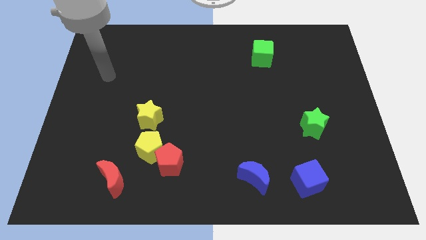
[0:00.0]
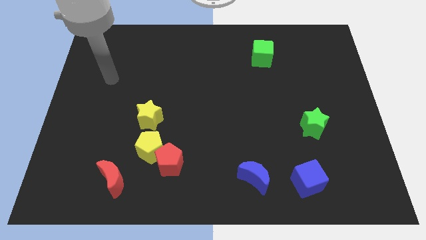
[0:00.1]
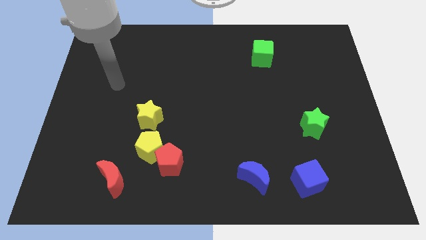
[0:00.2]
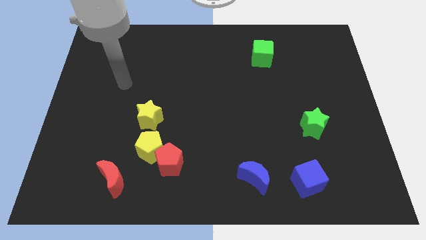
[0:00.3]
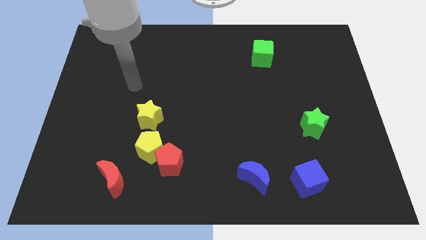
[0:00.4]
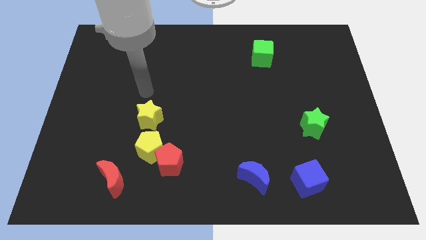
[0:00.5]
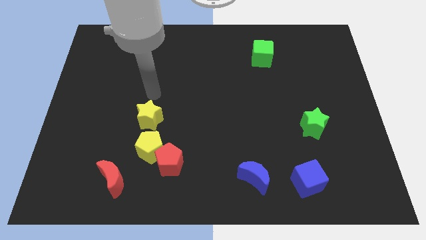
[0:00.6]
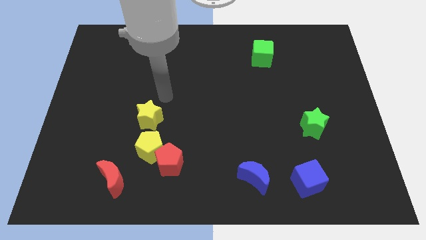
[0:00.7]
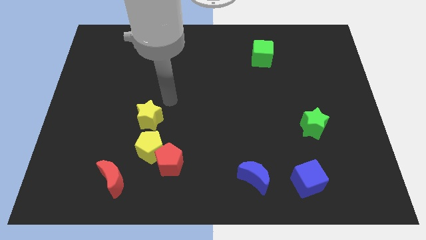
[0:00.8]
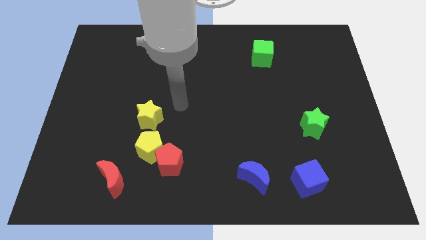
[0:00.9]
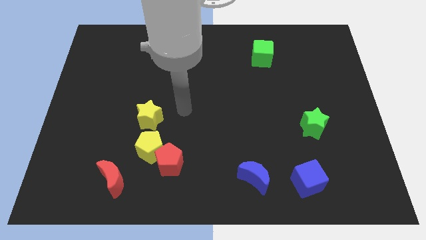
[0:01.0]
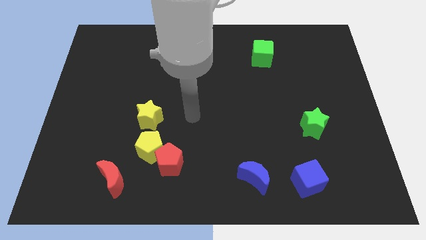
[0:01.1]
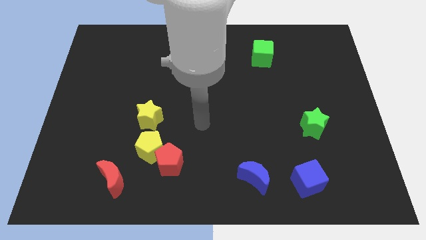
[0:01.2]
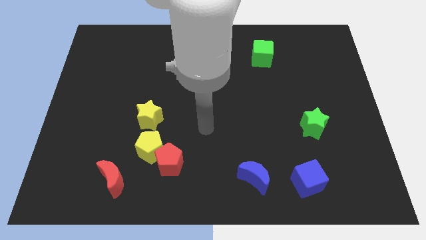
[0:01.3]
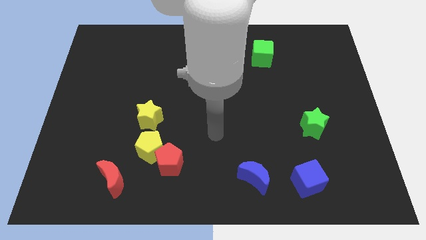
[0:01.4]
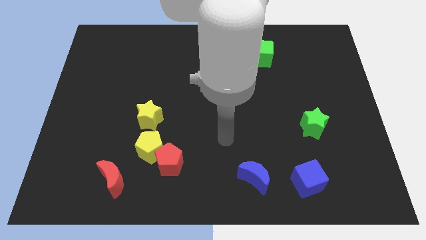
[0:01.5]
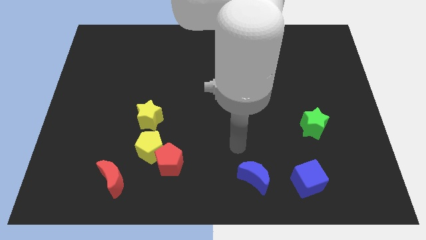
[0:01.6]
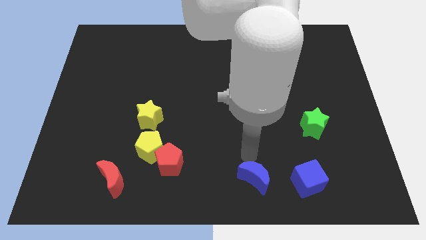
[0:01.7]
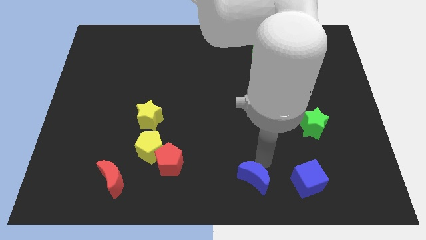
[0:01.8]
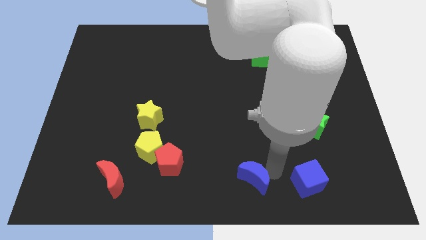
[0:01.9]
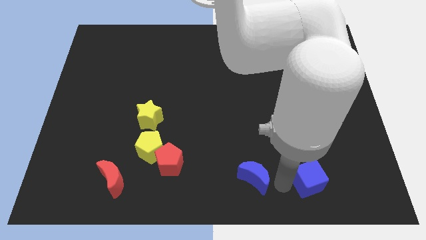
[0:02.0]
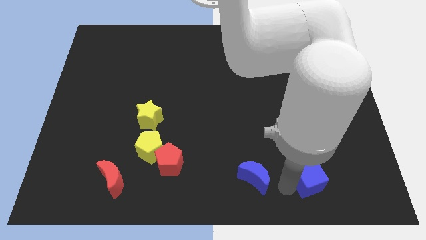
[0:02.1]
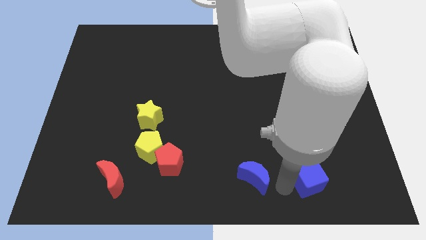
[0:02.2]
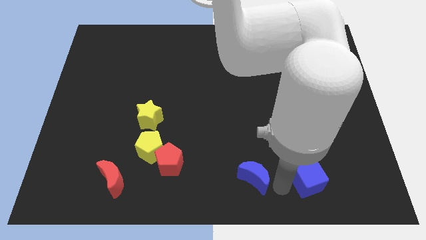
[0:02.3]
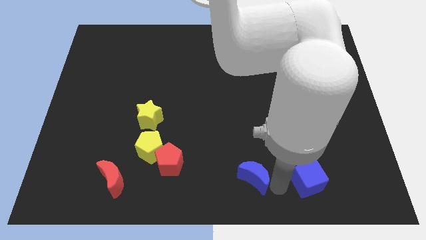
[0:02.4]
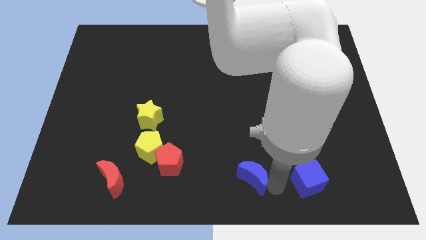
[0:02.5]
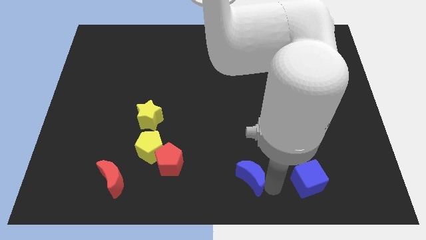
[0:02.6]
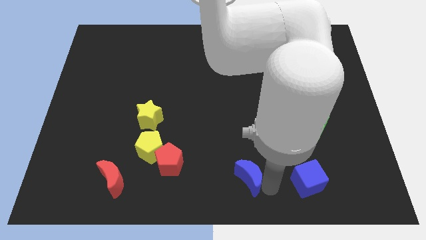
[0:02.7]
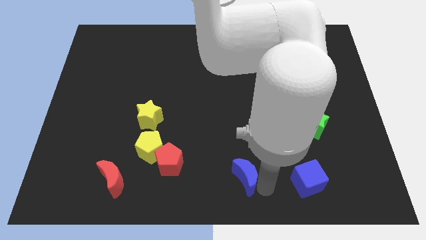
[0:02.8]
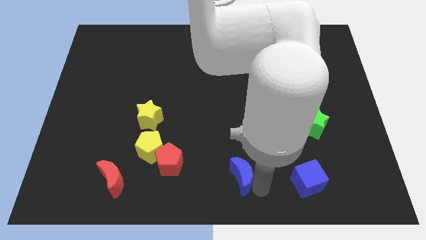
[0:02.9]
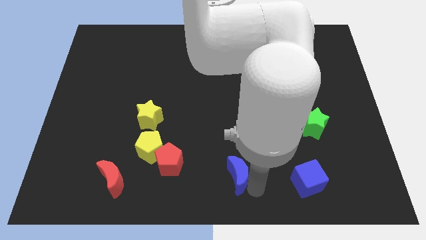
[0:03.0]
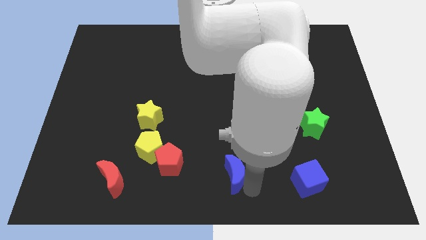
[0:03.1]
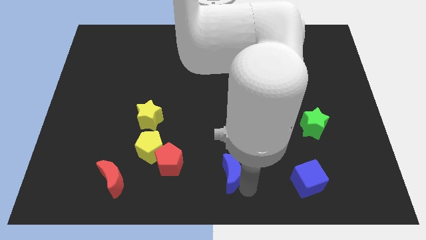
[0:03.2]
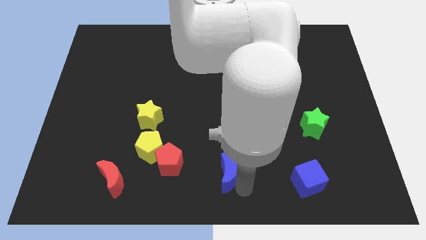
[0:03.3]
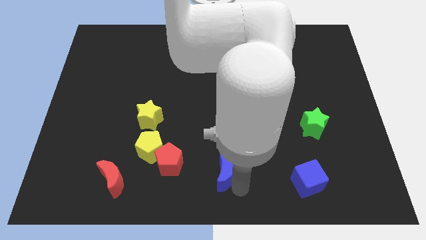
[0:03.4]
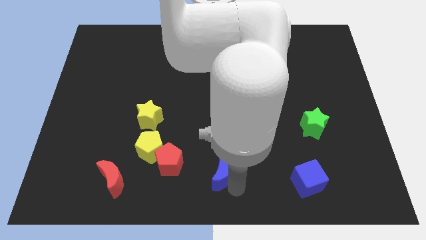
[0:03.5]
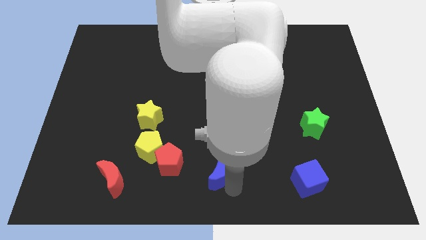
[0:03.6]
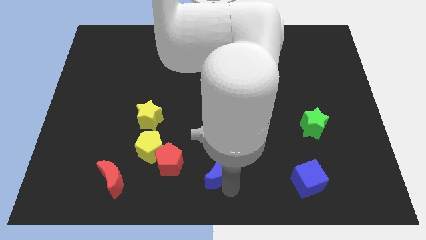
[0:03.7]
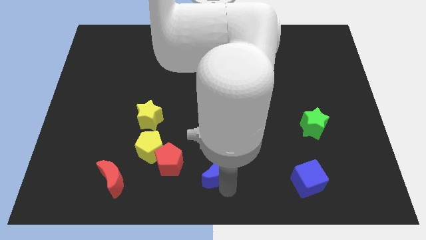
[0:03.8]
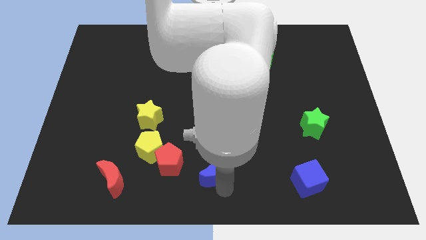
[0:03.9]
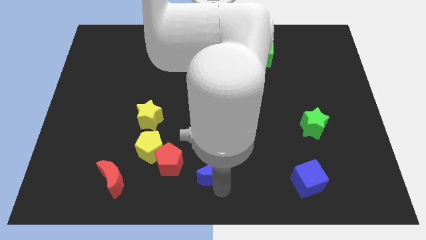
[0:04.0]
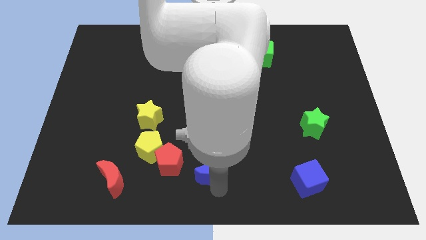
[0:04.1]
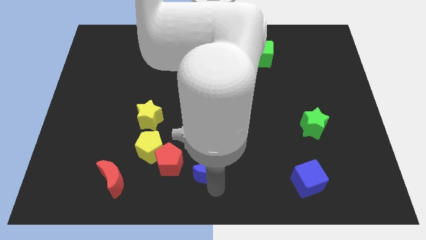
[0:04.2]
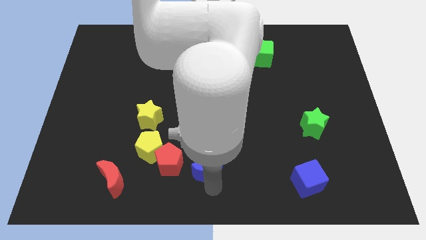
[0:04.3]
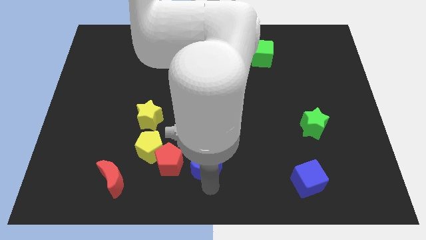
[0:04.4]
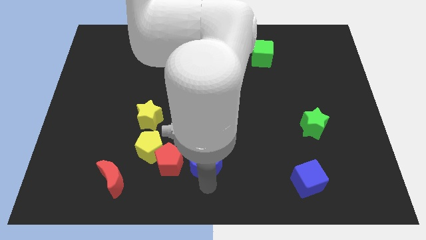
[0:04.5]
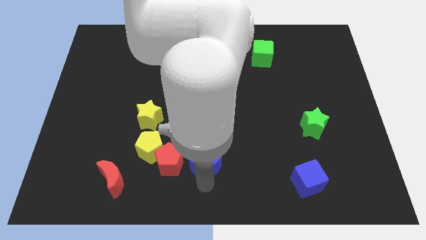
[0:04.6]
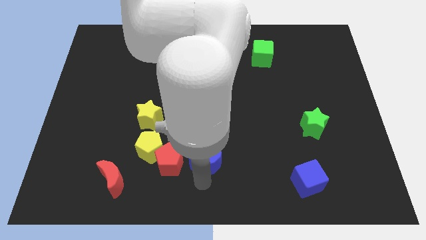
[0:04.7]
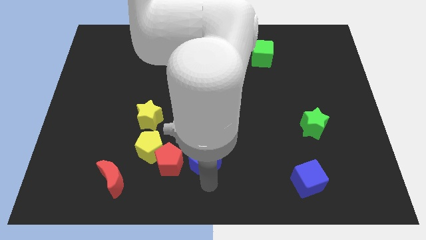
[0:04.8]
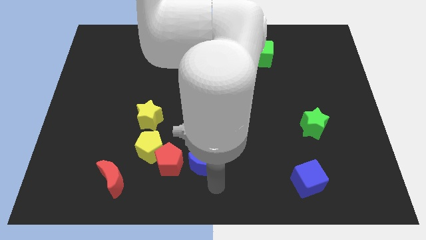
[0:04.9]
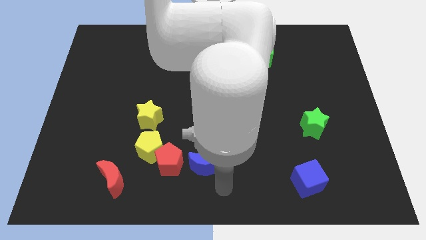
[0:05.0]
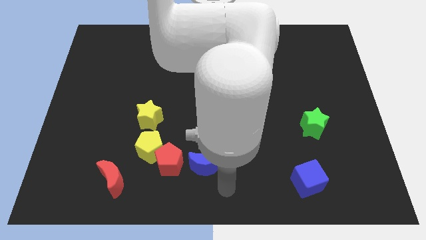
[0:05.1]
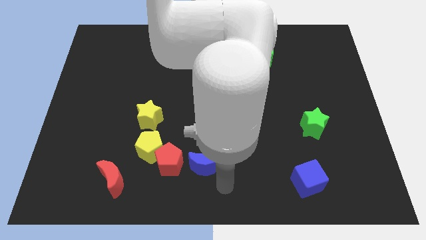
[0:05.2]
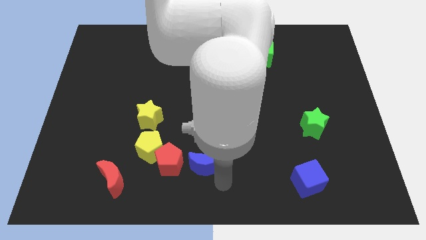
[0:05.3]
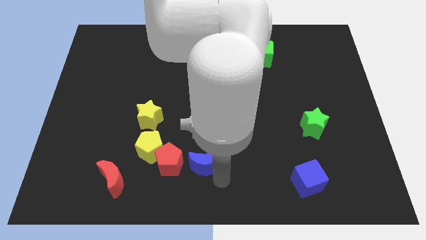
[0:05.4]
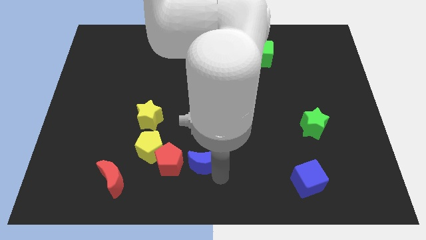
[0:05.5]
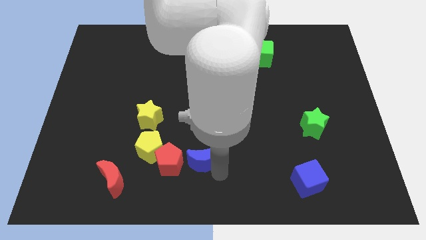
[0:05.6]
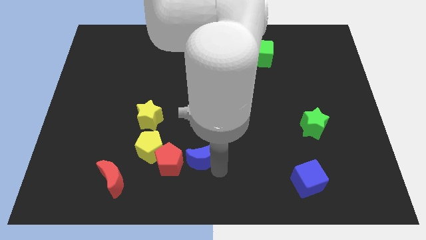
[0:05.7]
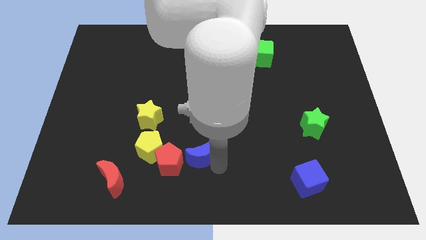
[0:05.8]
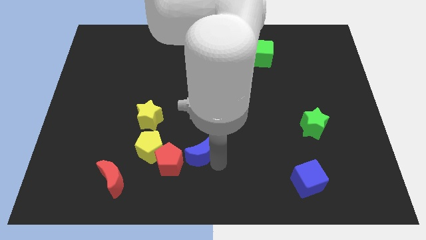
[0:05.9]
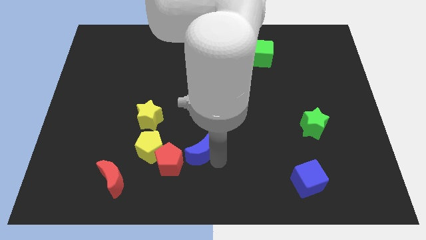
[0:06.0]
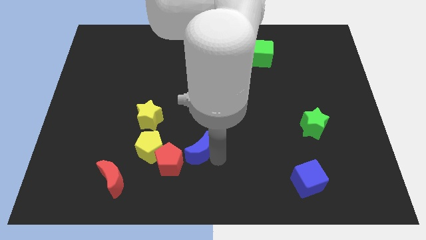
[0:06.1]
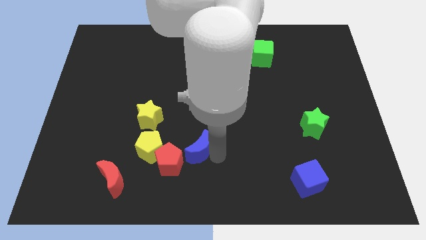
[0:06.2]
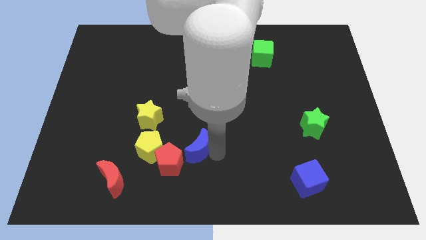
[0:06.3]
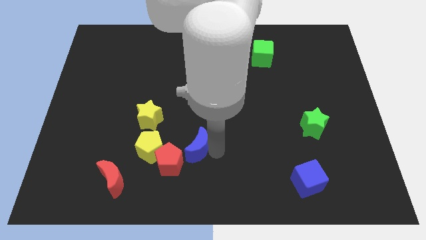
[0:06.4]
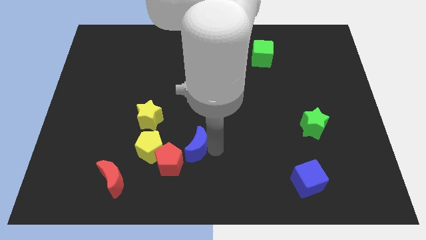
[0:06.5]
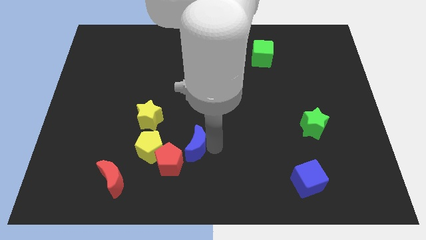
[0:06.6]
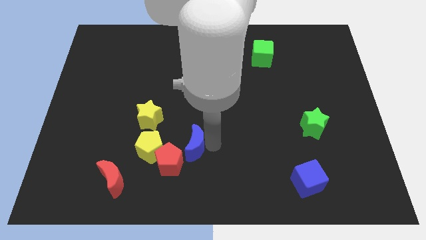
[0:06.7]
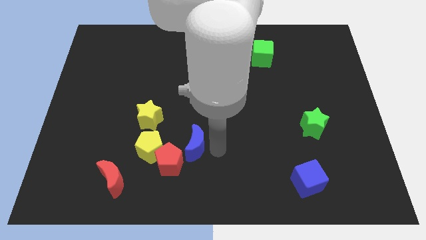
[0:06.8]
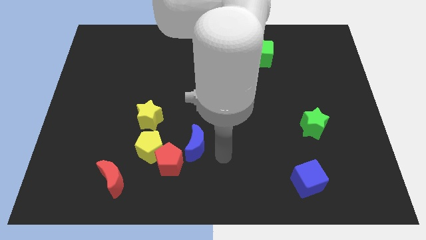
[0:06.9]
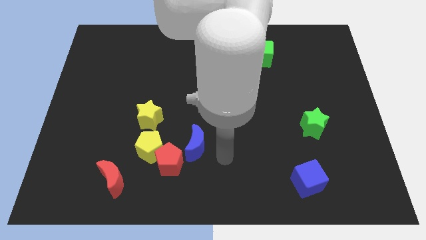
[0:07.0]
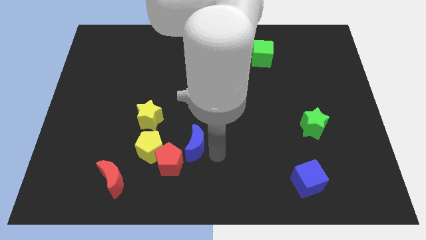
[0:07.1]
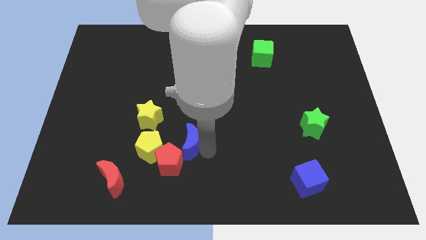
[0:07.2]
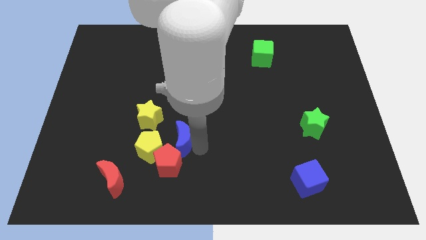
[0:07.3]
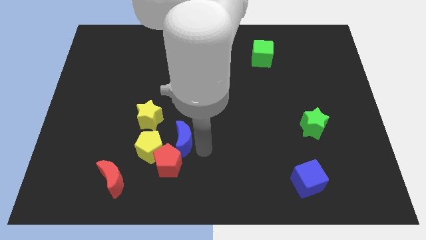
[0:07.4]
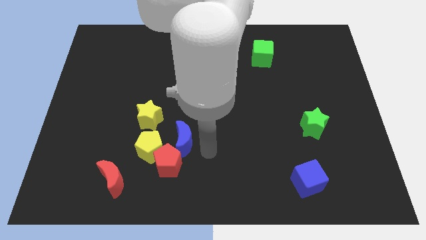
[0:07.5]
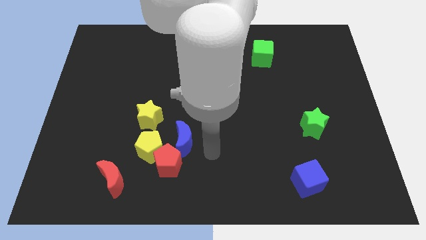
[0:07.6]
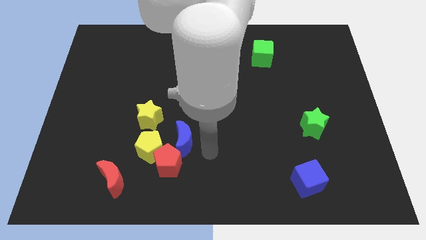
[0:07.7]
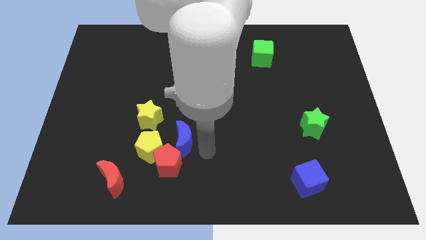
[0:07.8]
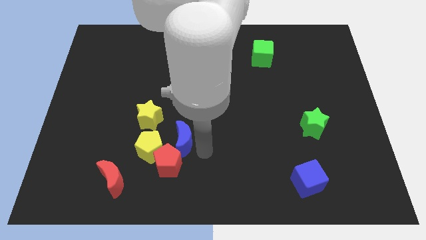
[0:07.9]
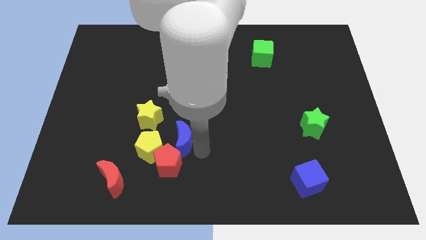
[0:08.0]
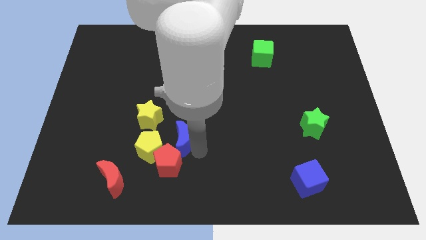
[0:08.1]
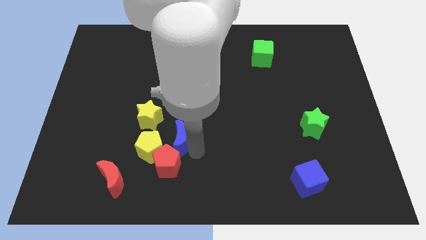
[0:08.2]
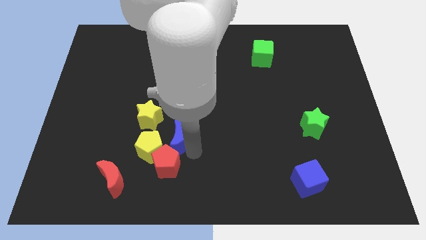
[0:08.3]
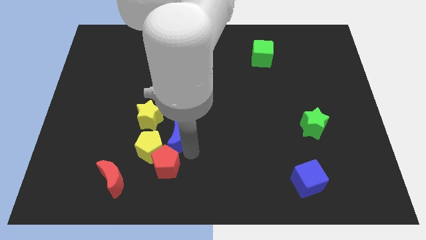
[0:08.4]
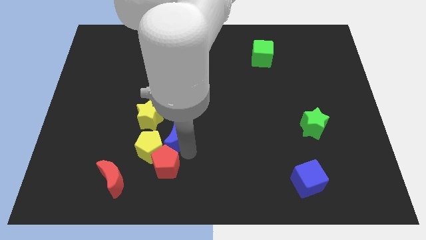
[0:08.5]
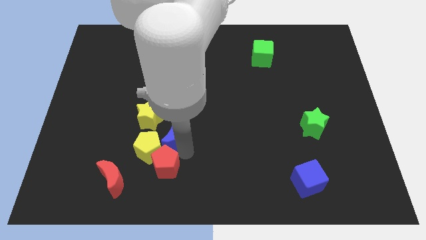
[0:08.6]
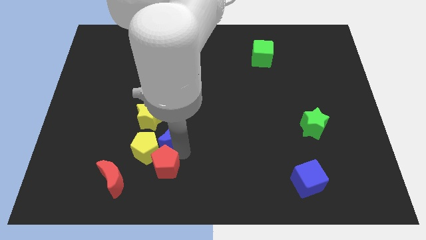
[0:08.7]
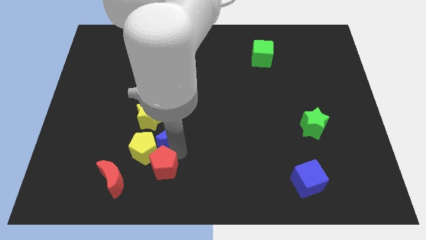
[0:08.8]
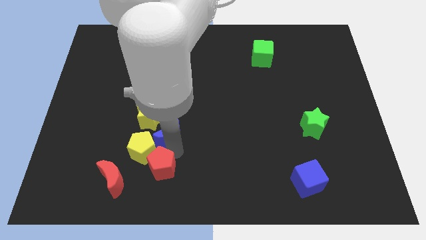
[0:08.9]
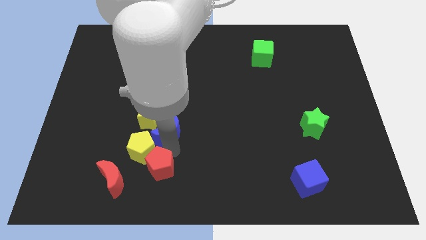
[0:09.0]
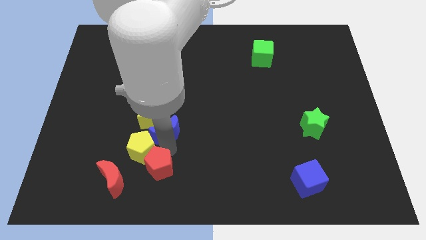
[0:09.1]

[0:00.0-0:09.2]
slide the blue moon towards the yellow star
